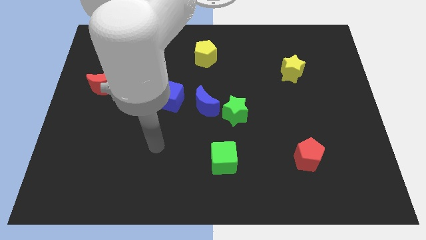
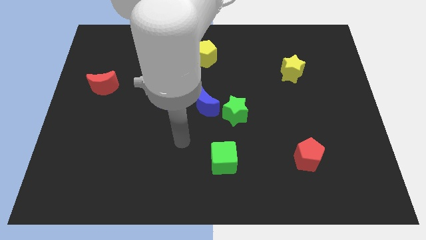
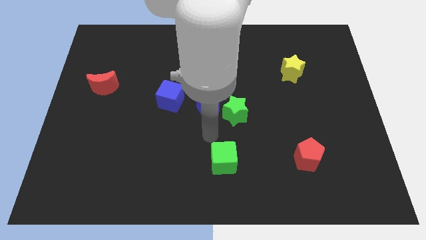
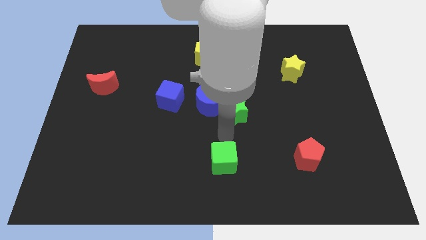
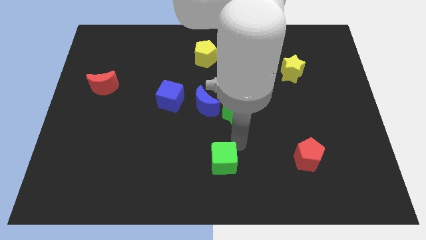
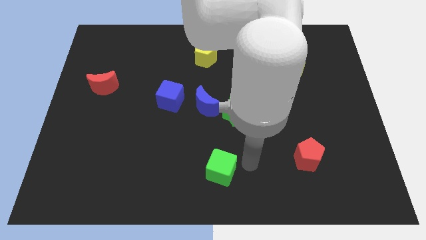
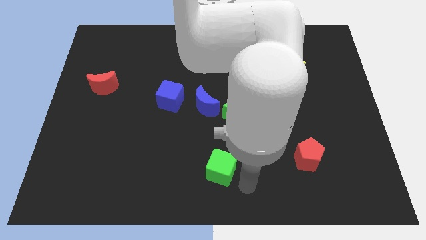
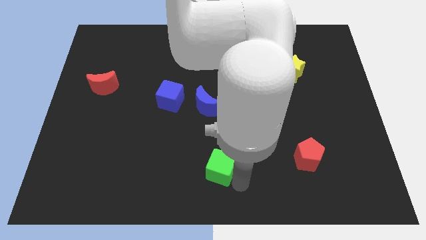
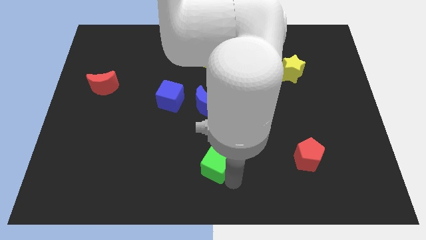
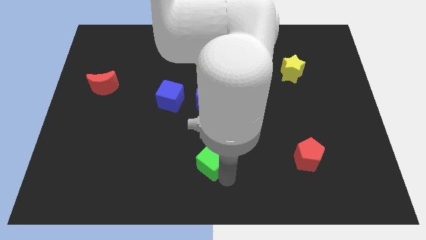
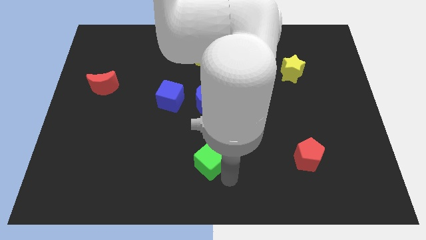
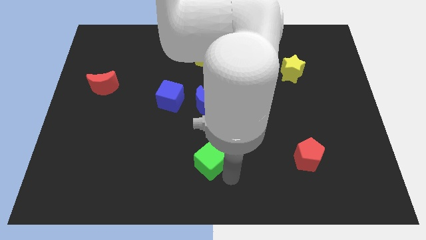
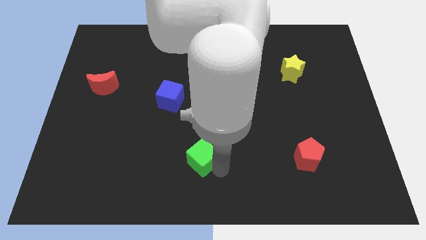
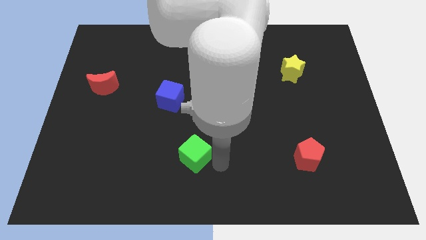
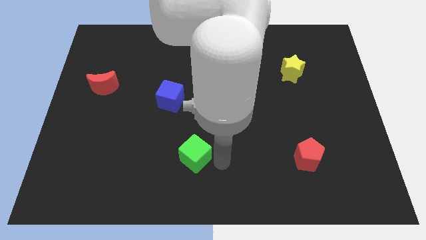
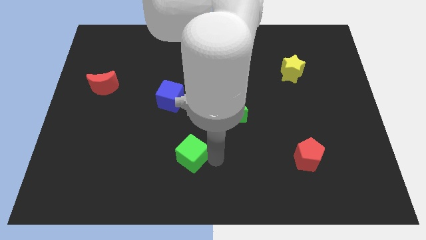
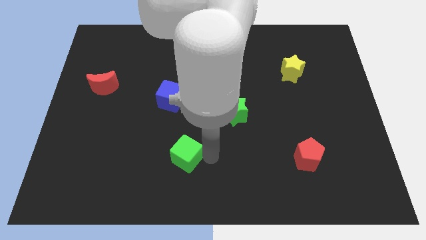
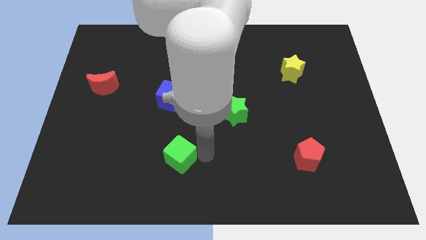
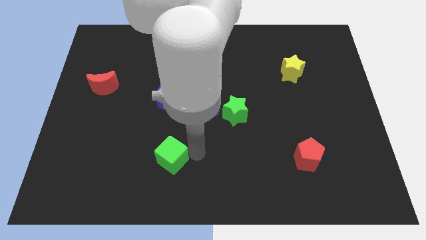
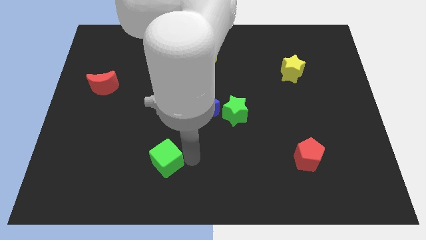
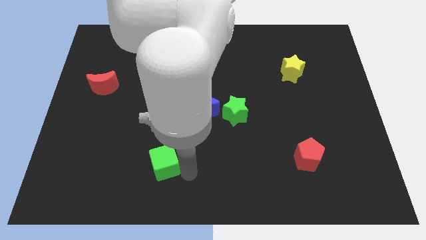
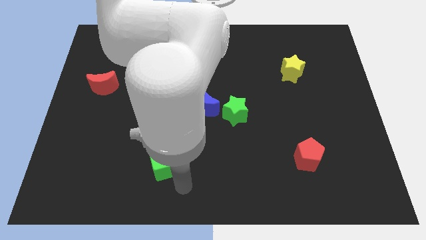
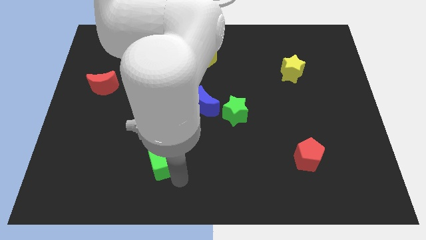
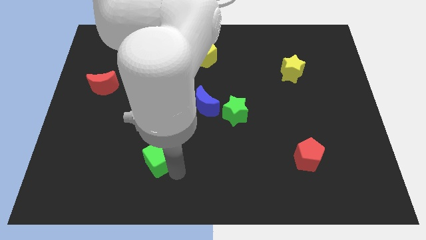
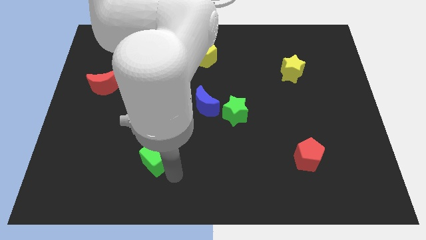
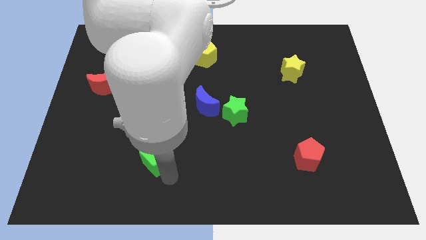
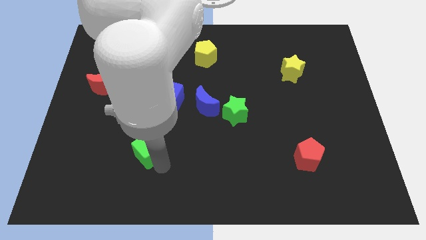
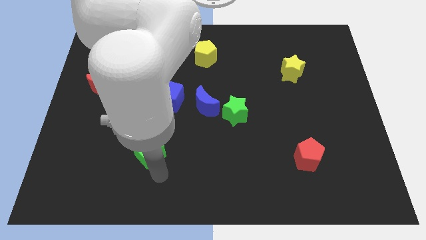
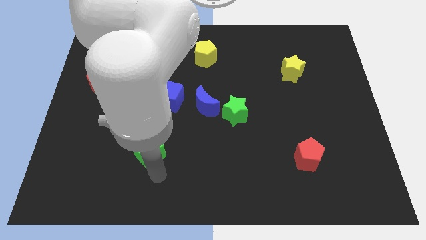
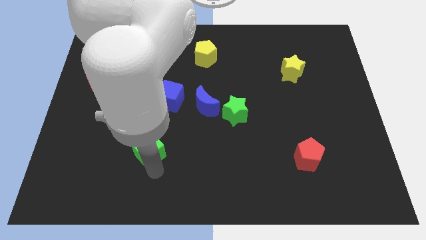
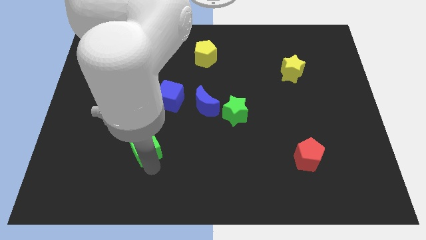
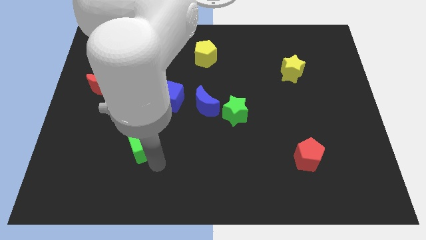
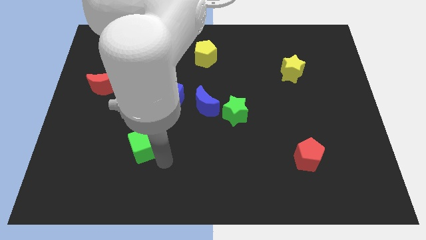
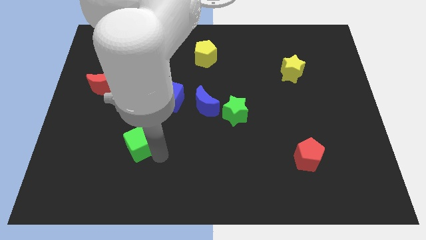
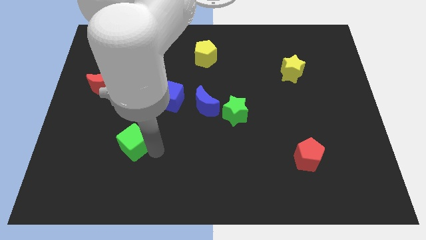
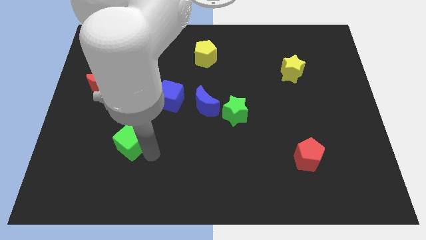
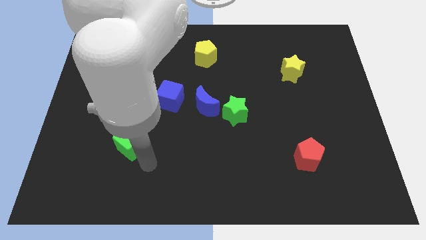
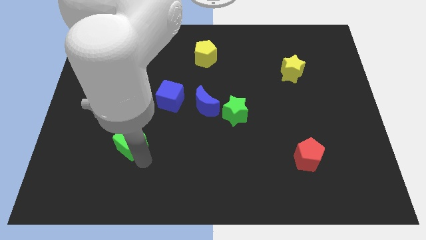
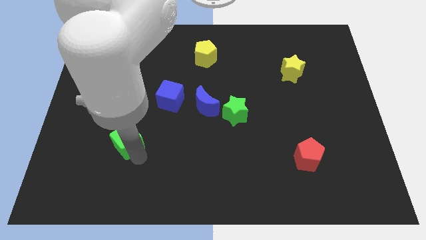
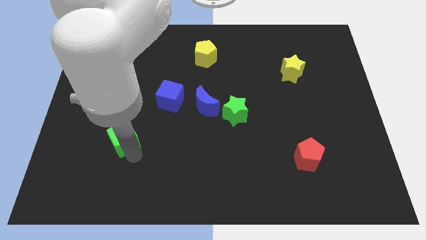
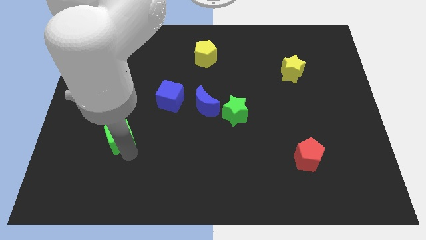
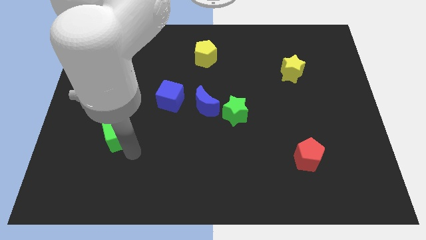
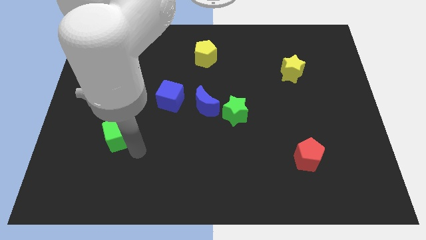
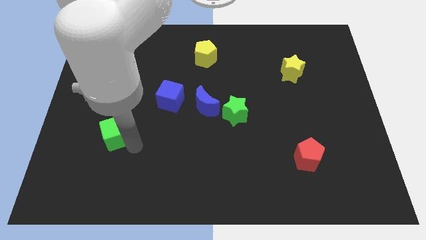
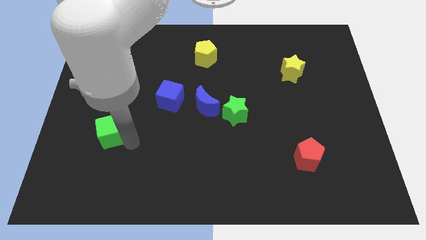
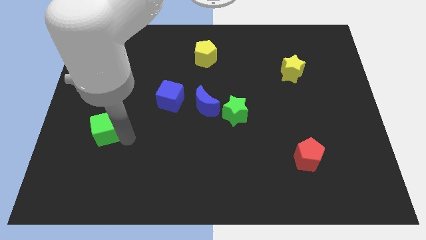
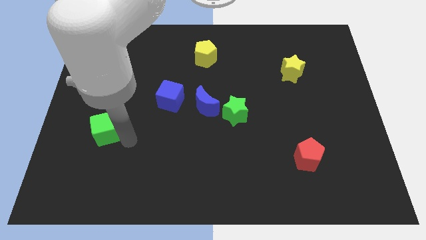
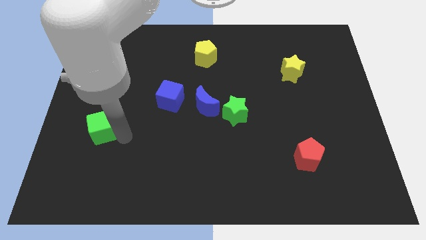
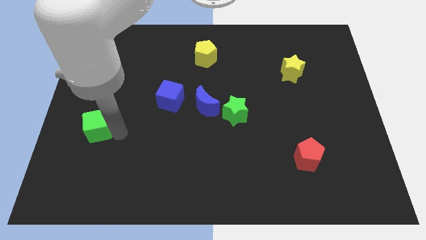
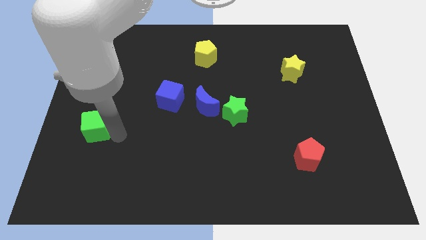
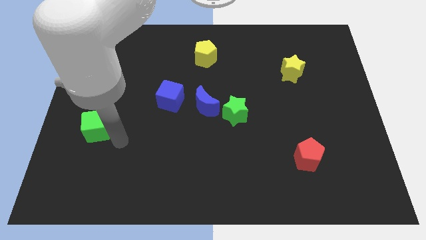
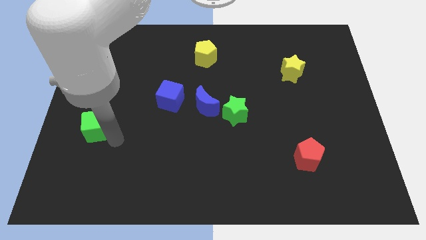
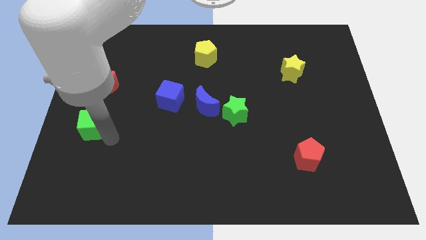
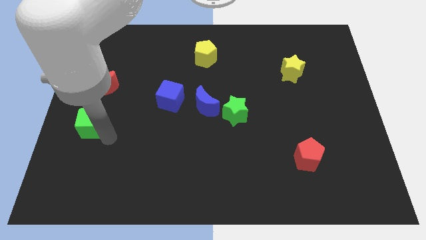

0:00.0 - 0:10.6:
push the green cube to the left side of the board

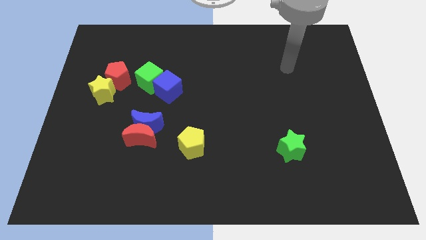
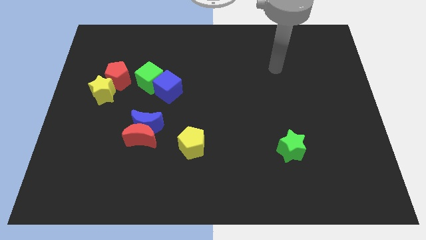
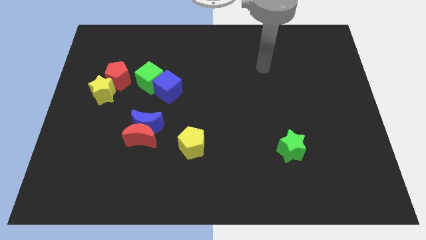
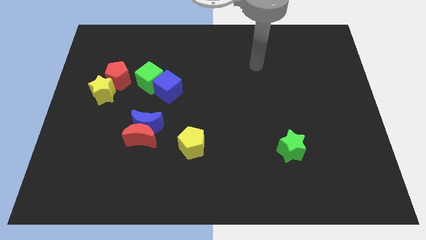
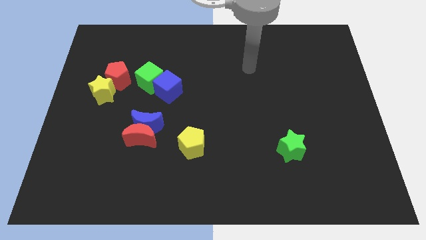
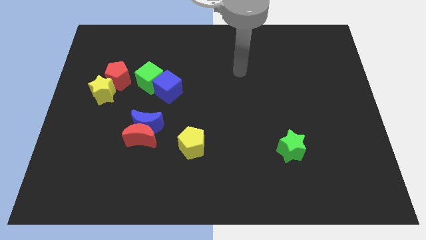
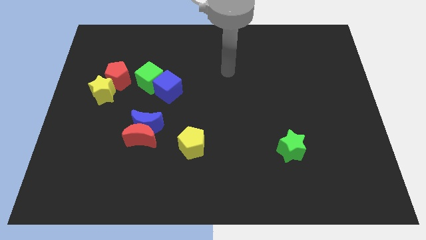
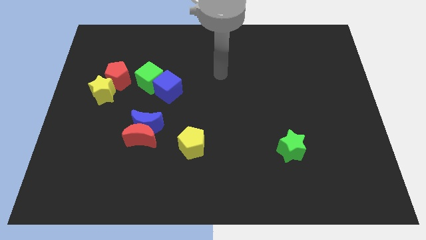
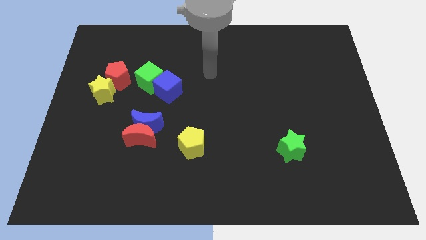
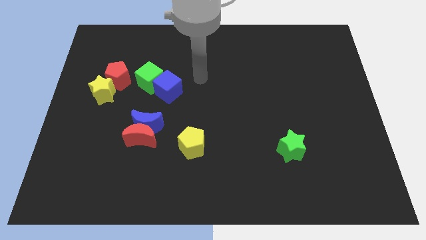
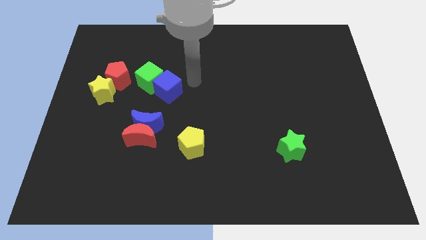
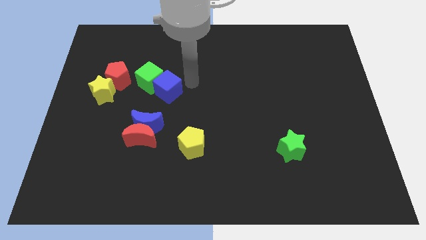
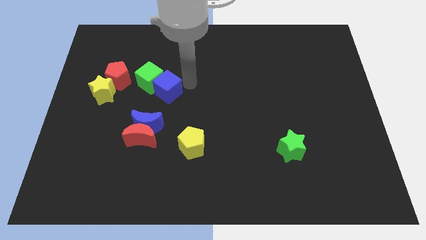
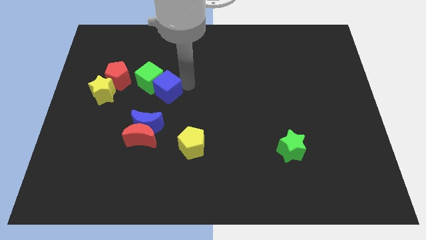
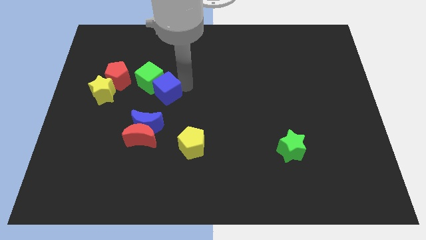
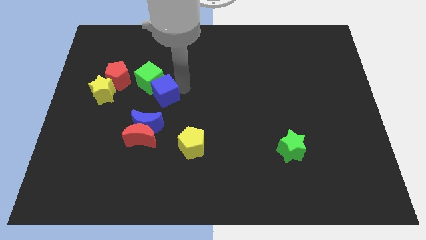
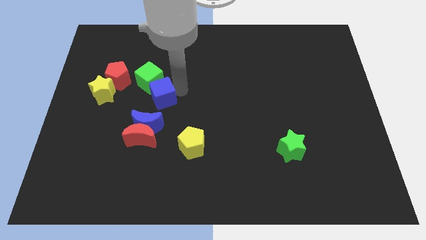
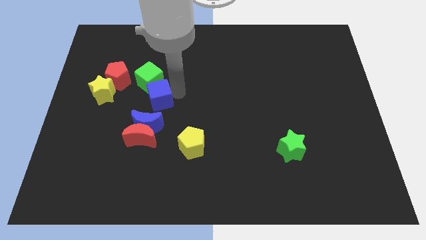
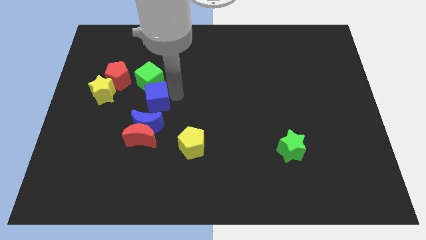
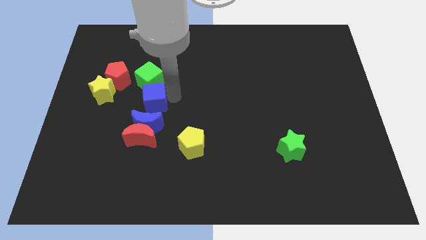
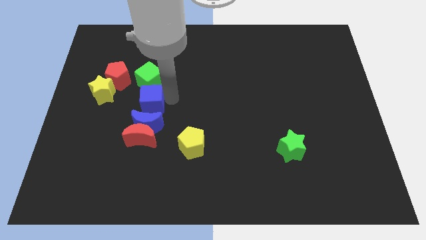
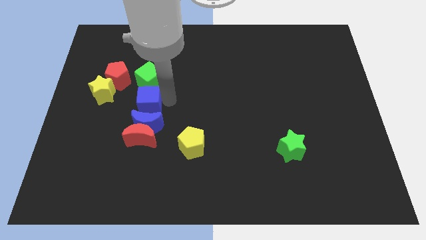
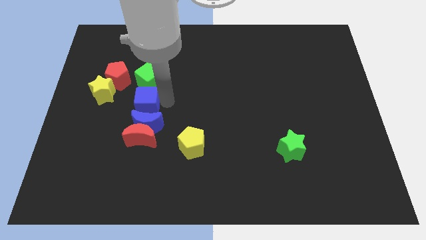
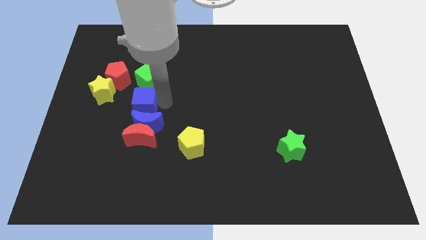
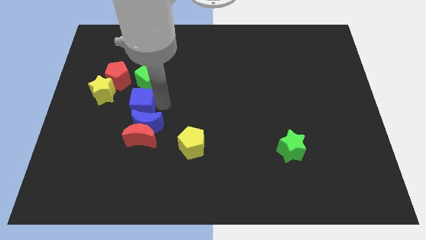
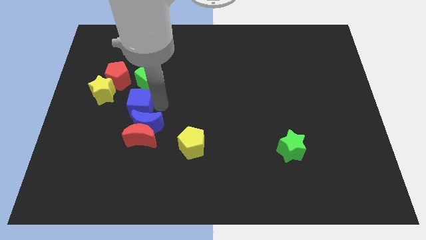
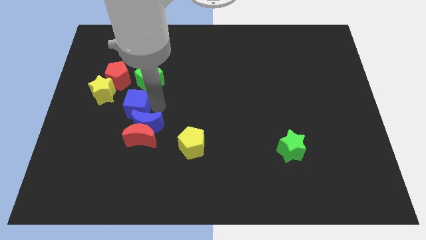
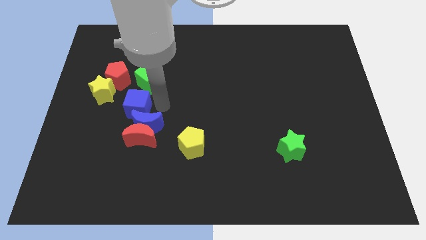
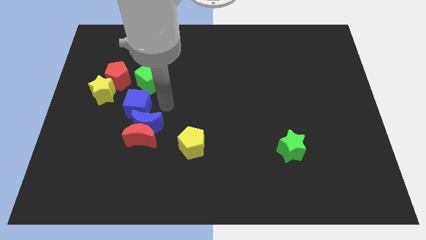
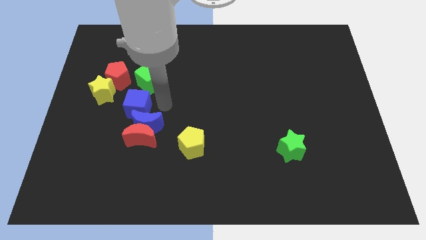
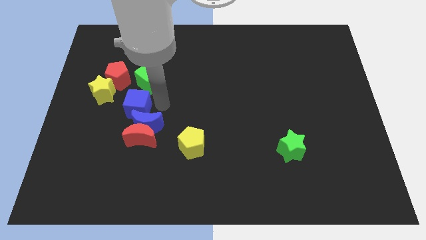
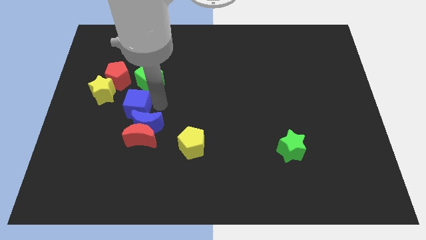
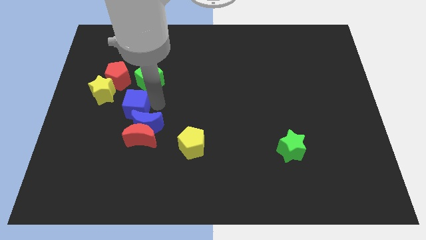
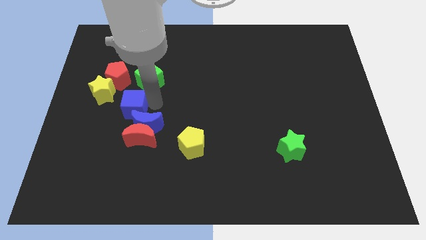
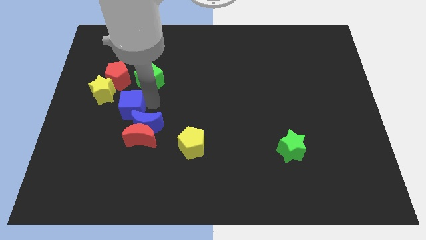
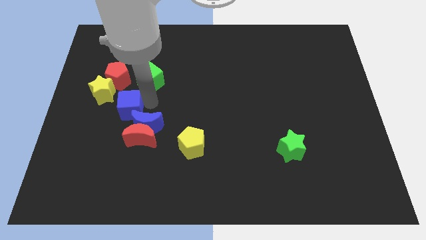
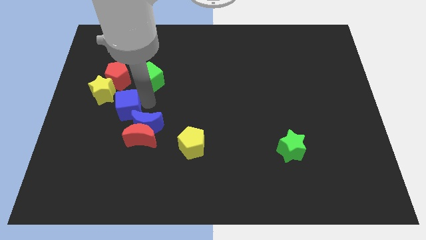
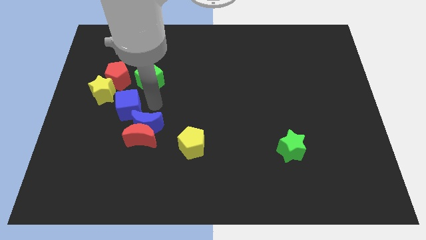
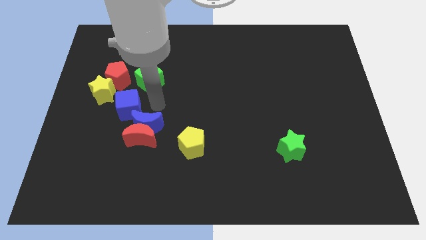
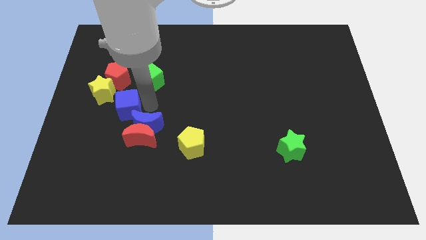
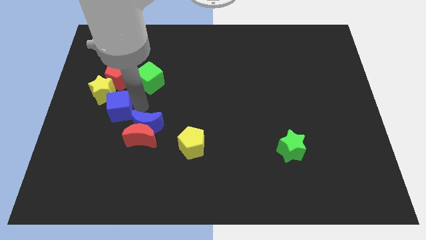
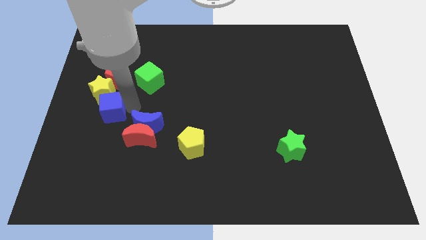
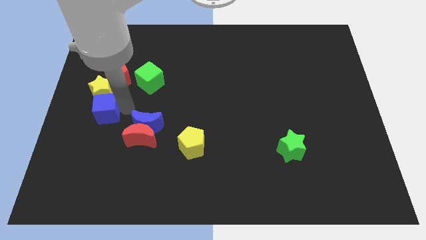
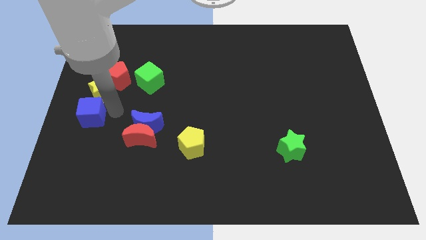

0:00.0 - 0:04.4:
slide the blue cube to the left side of the board
